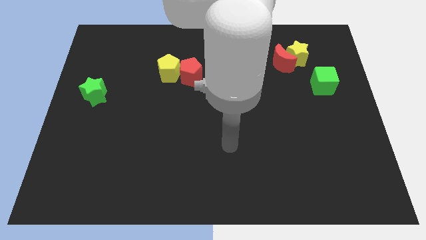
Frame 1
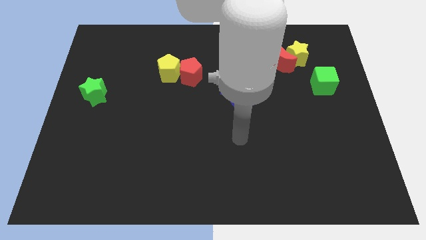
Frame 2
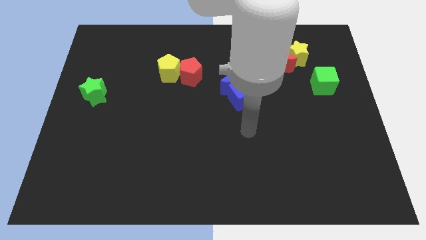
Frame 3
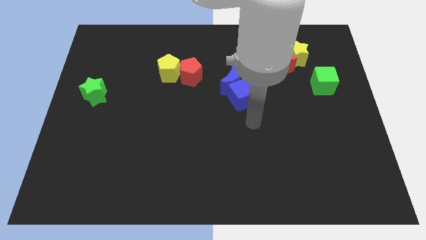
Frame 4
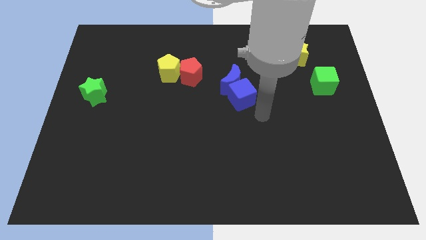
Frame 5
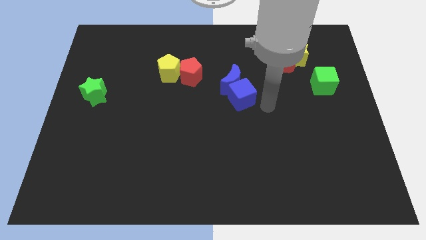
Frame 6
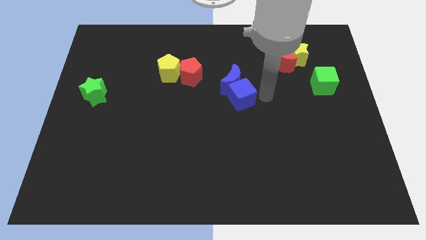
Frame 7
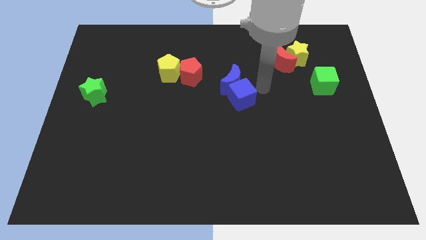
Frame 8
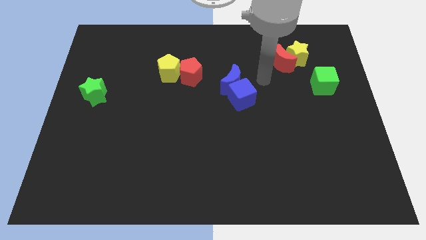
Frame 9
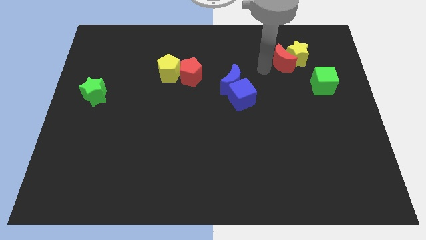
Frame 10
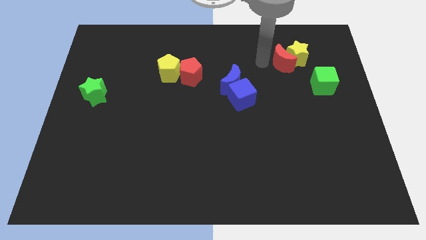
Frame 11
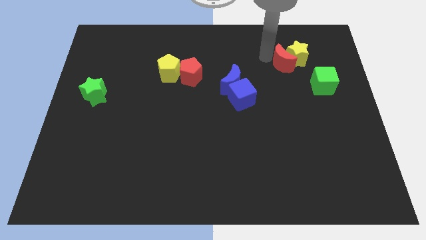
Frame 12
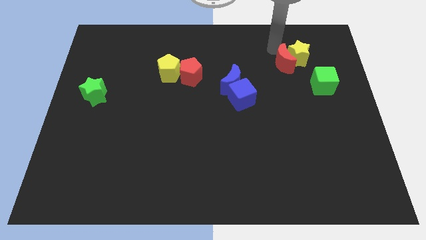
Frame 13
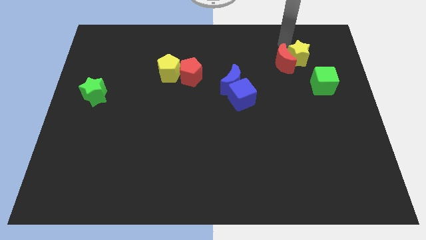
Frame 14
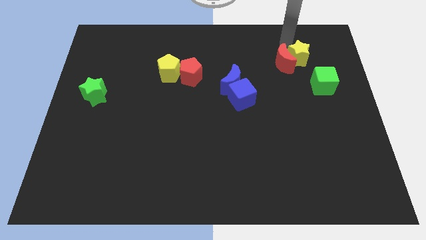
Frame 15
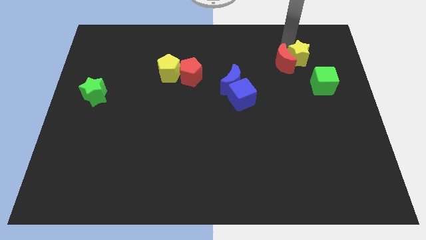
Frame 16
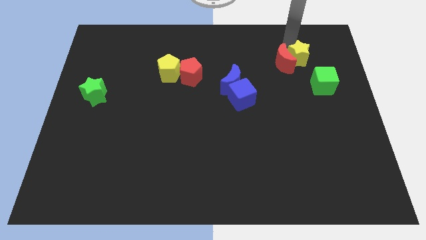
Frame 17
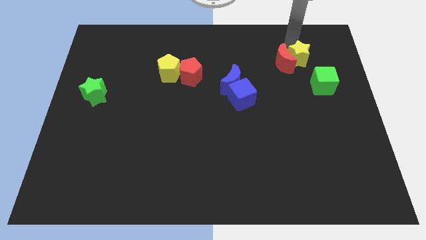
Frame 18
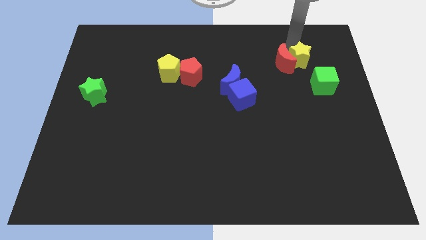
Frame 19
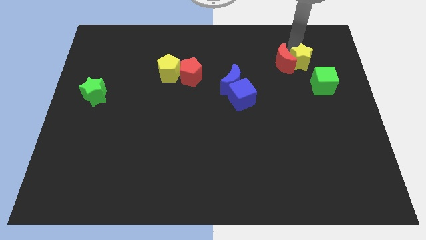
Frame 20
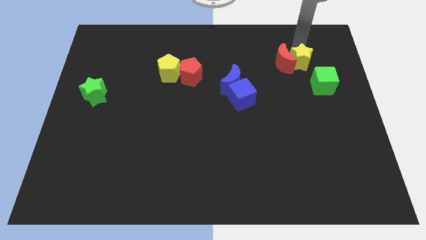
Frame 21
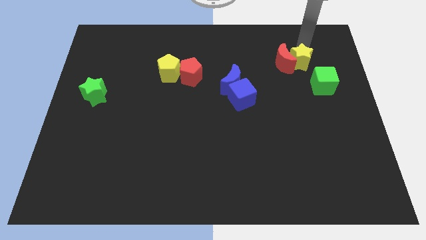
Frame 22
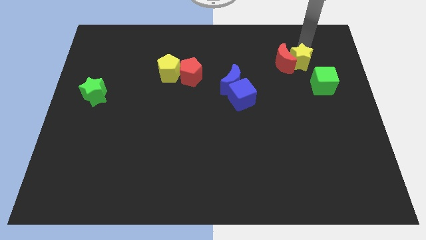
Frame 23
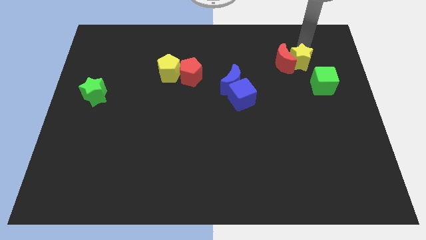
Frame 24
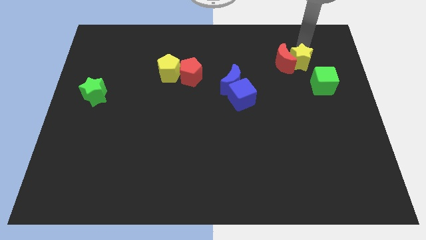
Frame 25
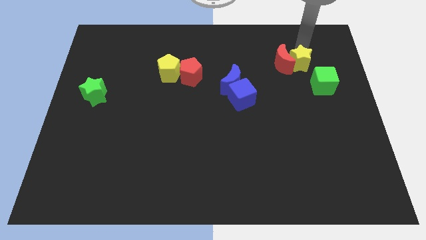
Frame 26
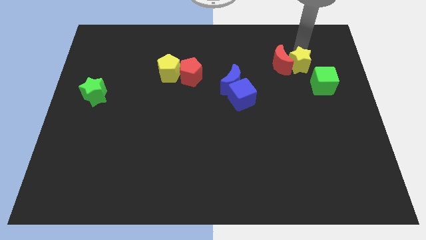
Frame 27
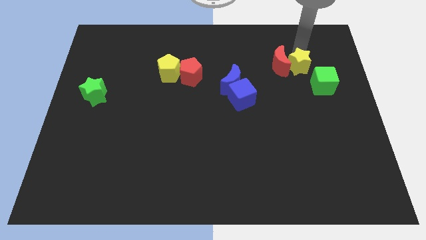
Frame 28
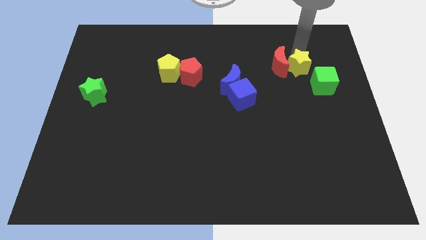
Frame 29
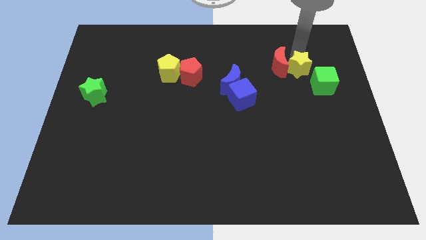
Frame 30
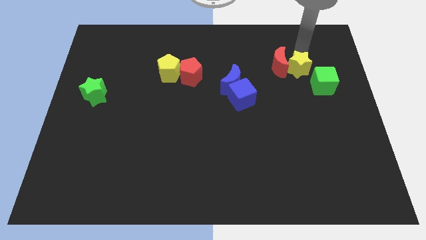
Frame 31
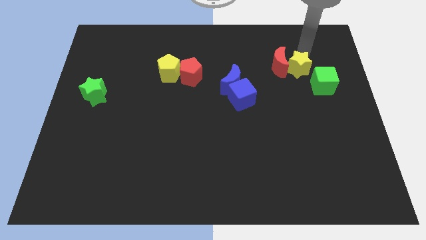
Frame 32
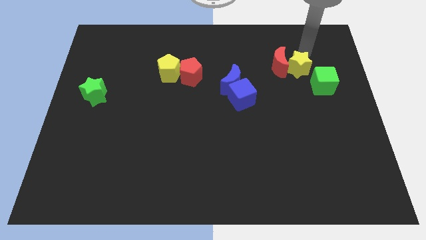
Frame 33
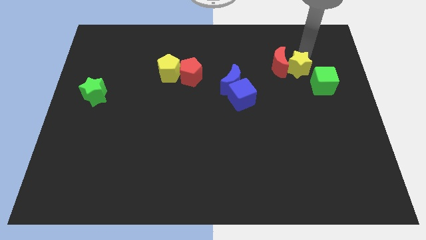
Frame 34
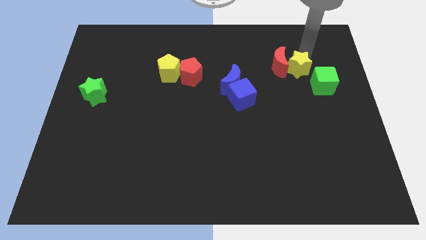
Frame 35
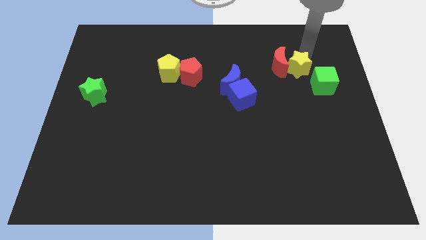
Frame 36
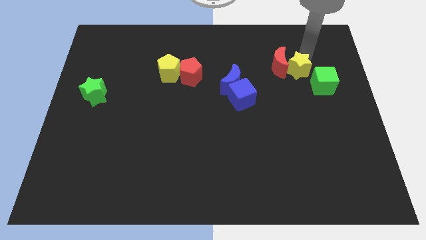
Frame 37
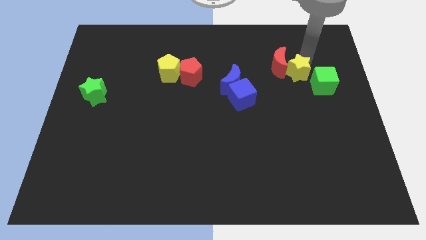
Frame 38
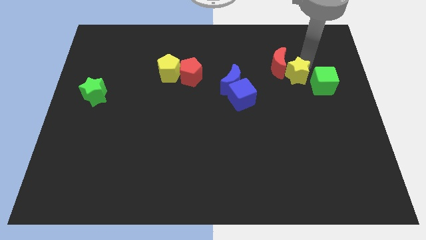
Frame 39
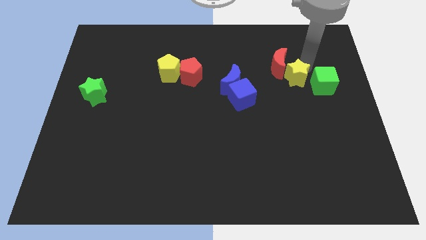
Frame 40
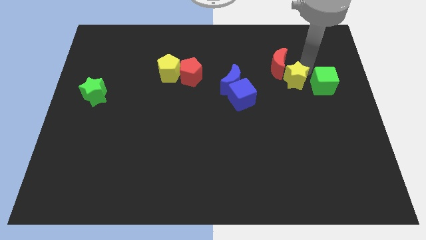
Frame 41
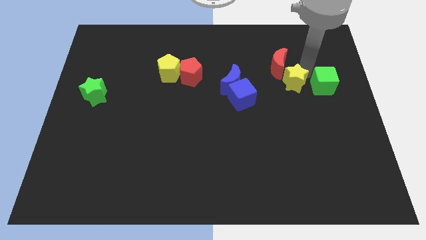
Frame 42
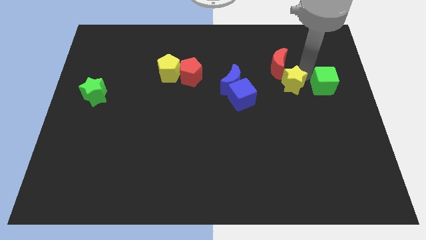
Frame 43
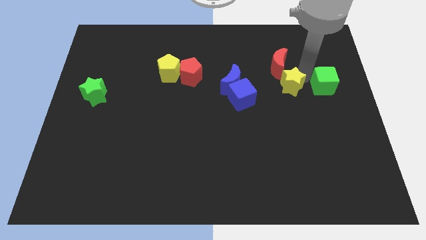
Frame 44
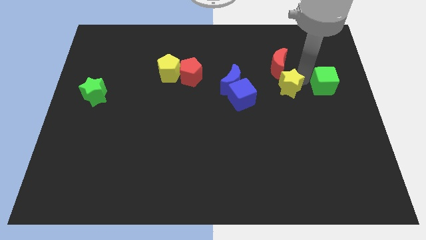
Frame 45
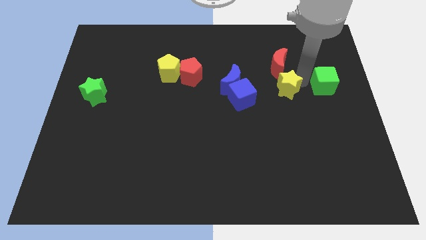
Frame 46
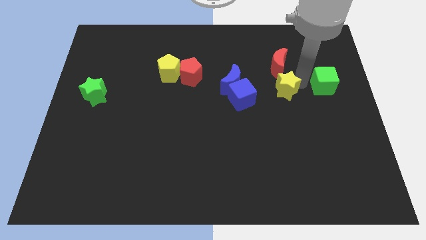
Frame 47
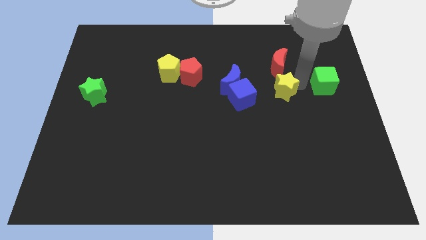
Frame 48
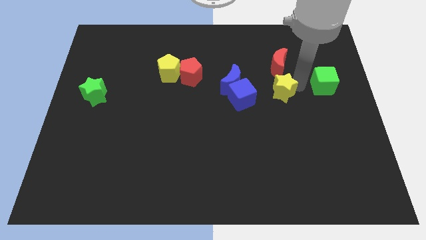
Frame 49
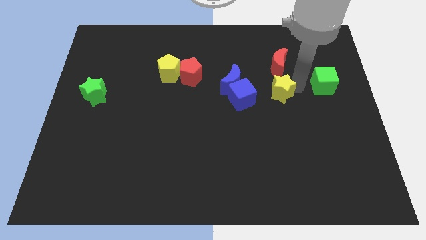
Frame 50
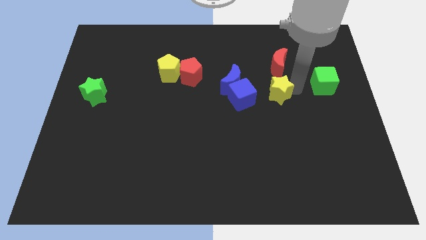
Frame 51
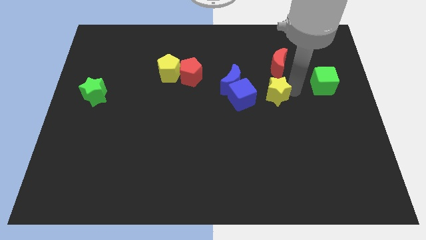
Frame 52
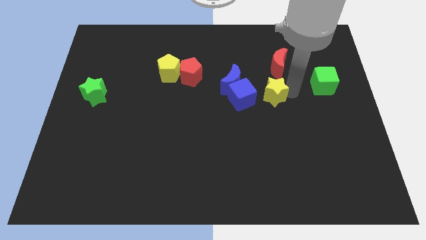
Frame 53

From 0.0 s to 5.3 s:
push the yellow star to the bottom right of the blue moon

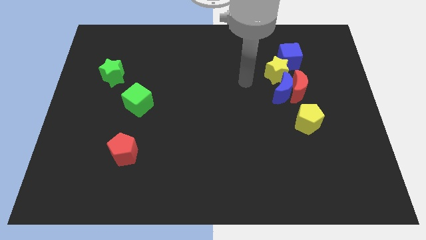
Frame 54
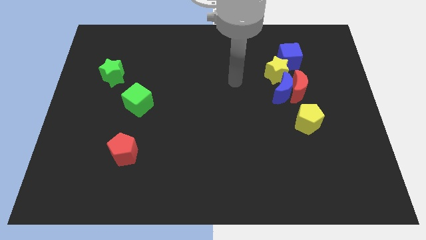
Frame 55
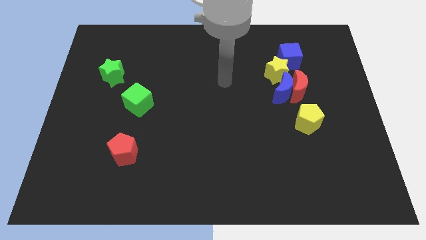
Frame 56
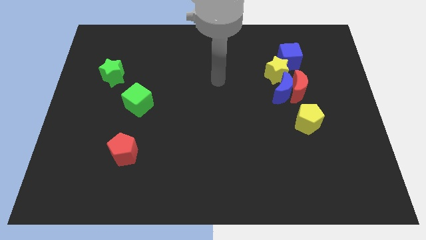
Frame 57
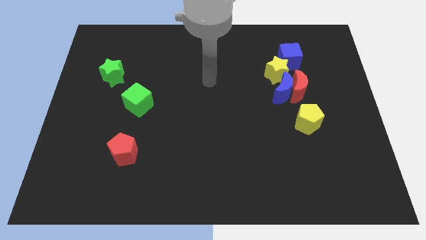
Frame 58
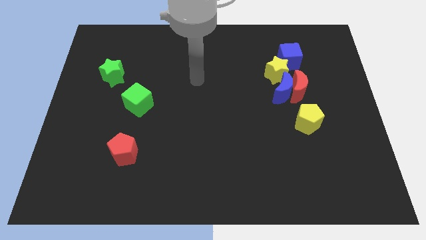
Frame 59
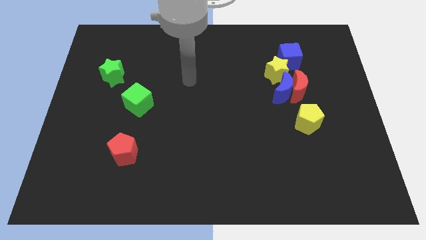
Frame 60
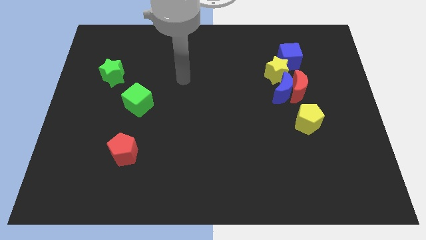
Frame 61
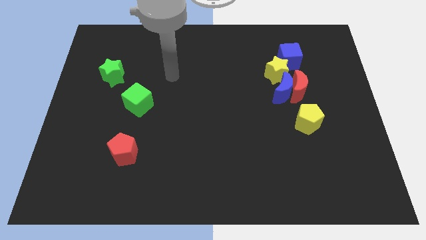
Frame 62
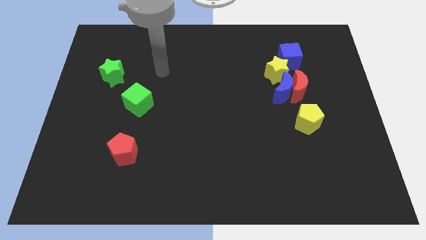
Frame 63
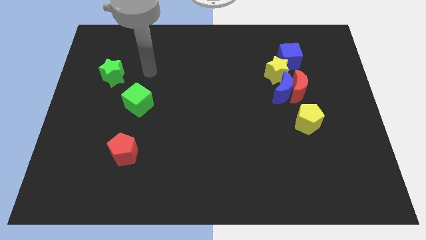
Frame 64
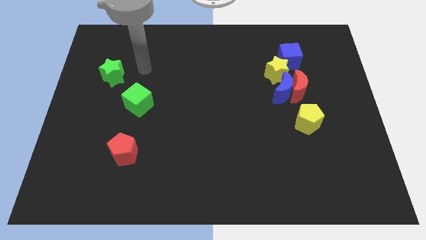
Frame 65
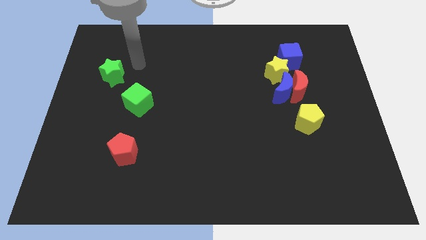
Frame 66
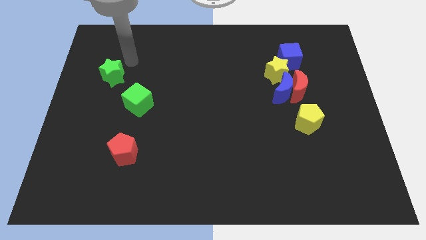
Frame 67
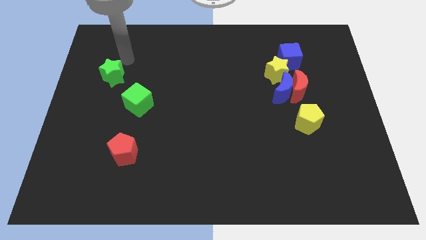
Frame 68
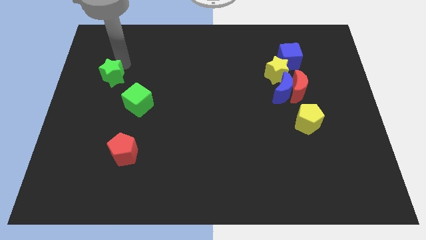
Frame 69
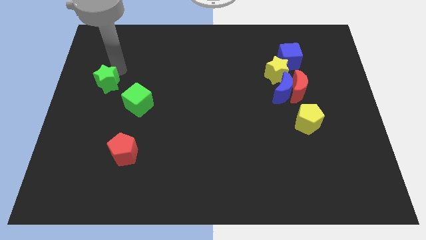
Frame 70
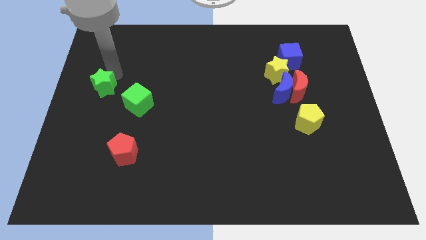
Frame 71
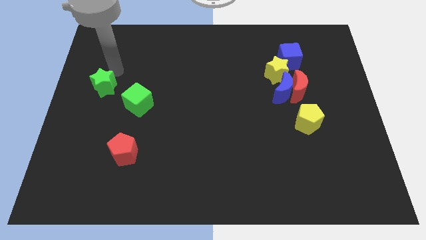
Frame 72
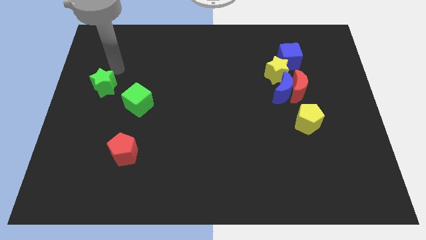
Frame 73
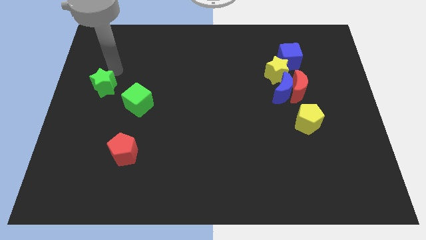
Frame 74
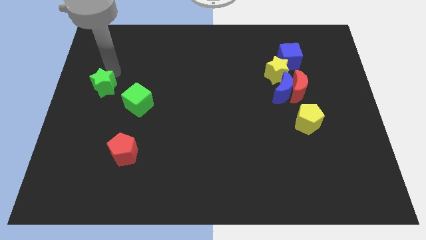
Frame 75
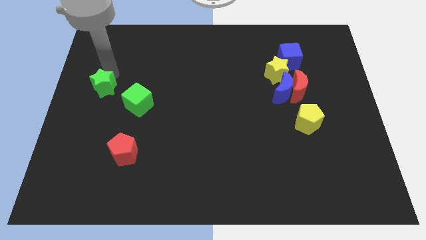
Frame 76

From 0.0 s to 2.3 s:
move the green star left of the green cube
